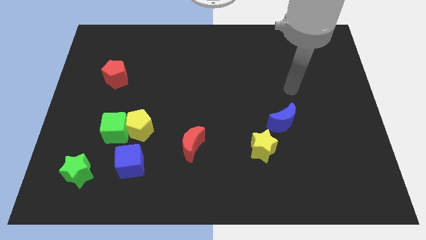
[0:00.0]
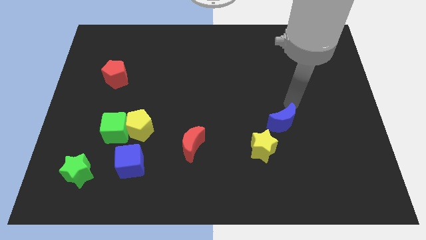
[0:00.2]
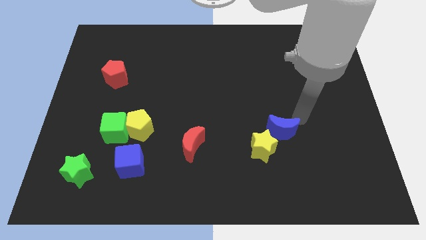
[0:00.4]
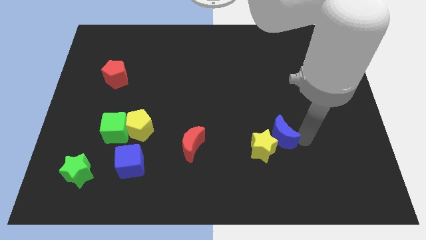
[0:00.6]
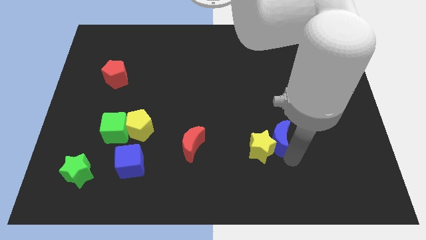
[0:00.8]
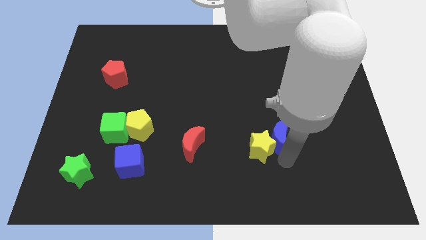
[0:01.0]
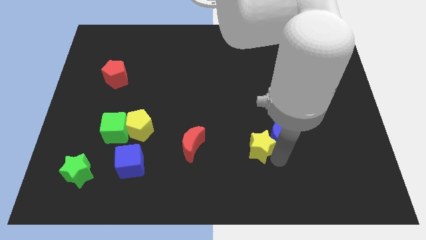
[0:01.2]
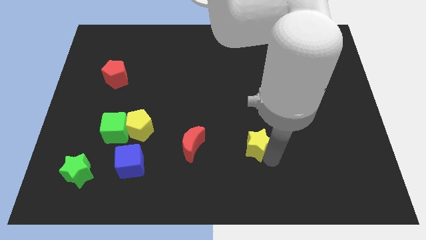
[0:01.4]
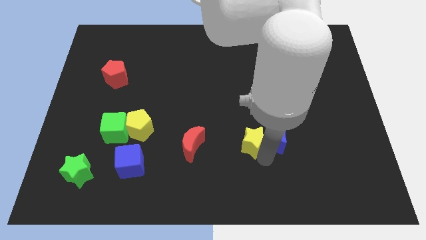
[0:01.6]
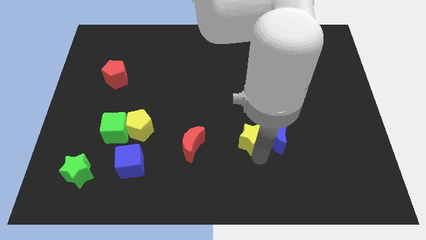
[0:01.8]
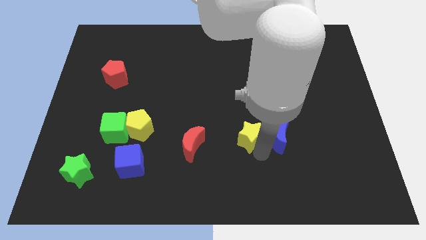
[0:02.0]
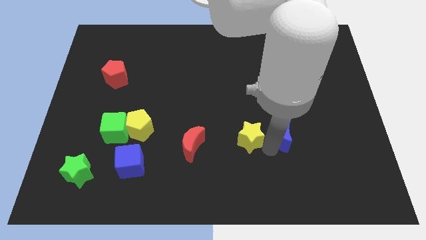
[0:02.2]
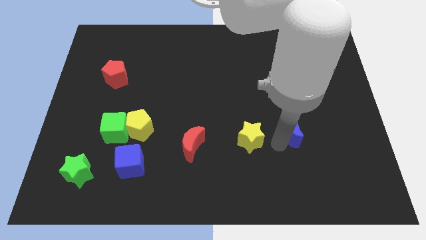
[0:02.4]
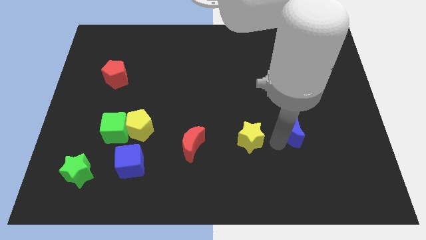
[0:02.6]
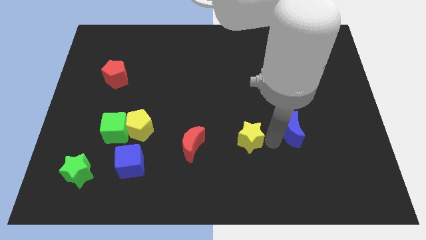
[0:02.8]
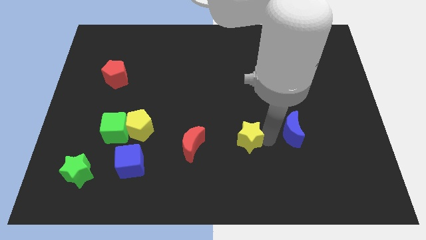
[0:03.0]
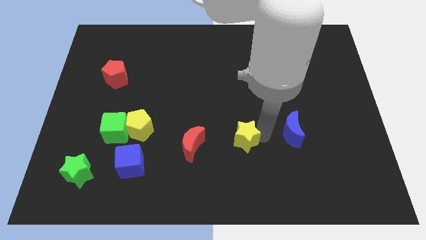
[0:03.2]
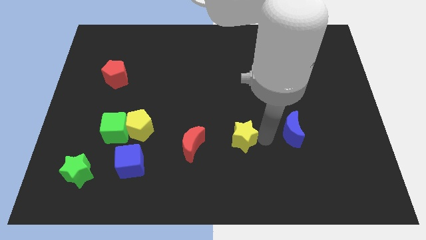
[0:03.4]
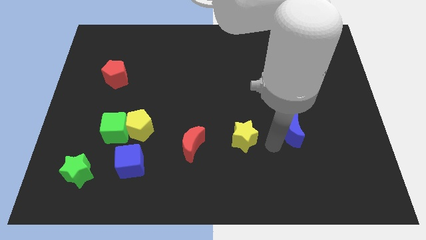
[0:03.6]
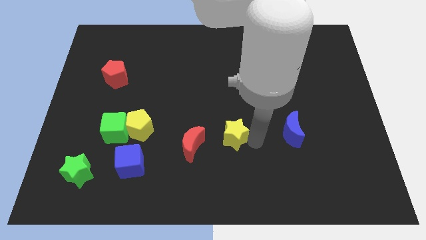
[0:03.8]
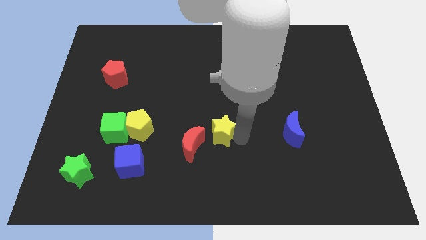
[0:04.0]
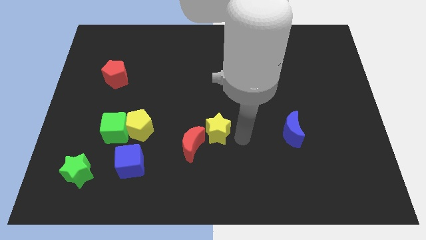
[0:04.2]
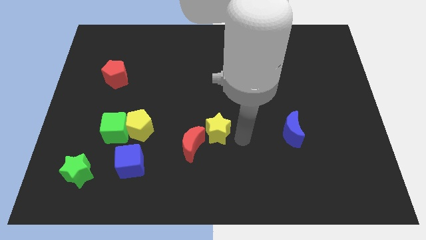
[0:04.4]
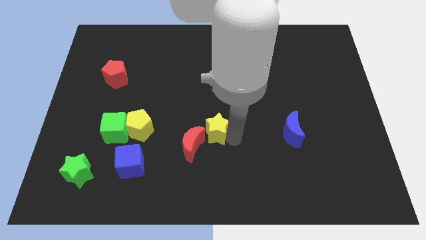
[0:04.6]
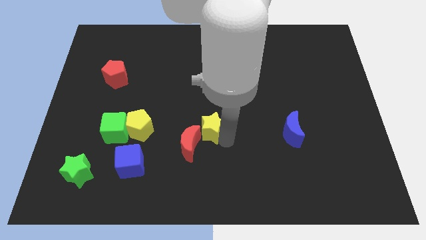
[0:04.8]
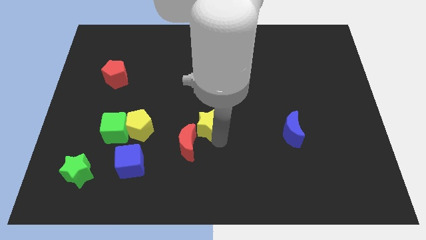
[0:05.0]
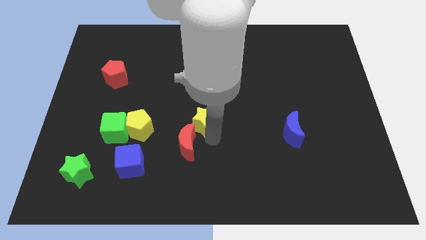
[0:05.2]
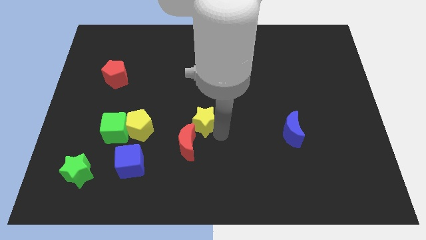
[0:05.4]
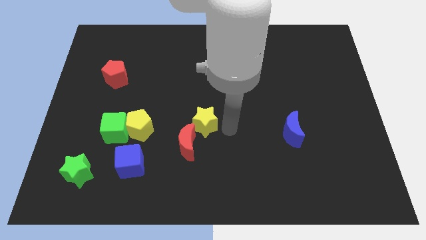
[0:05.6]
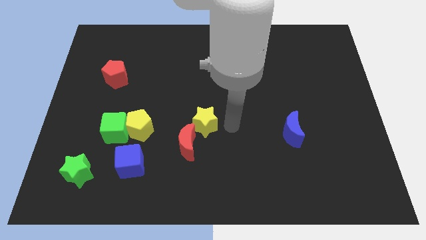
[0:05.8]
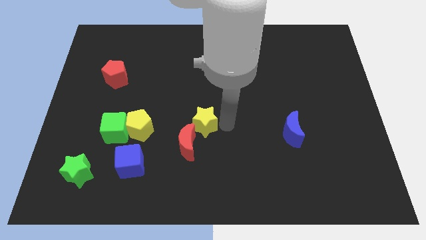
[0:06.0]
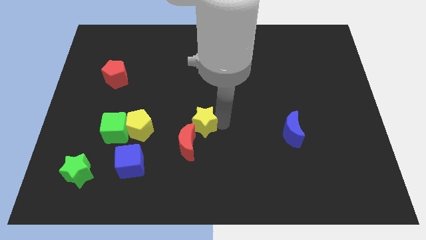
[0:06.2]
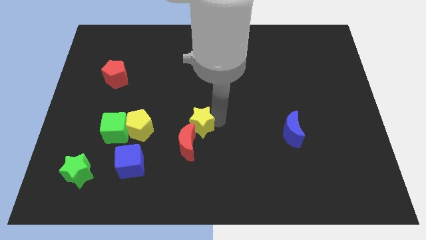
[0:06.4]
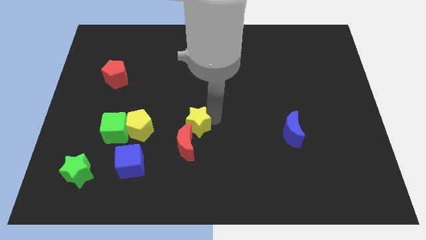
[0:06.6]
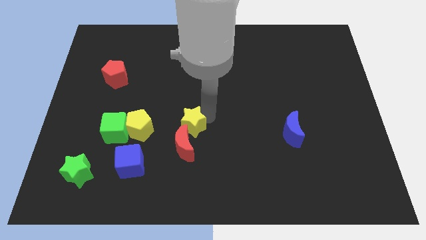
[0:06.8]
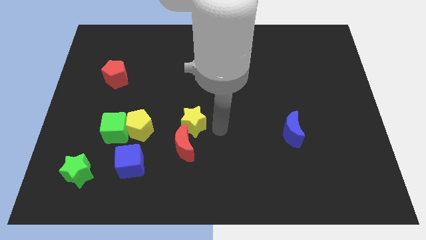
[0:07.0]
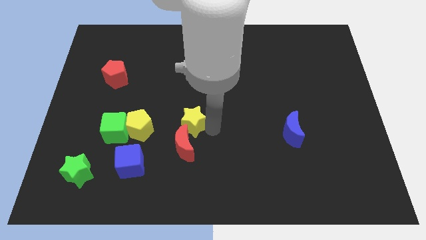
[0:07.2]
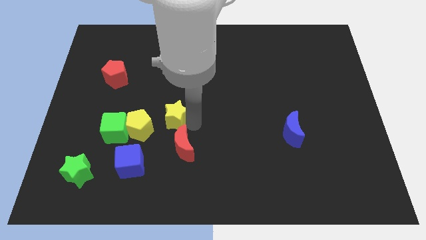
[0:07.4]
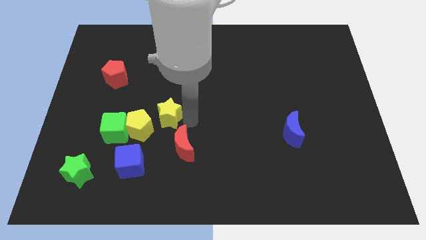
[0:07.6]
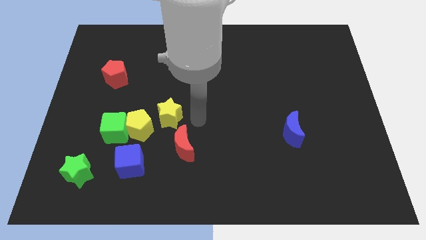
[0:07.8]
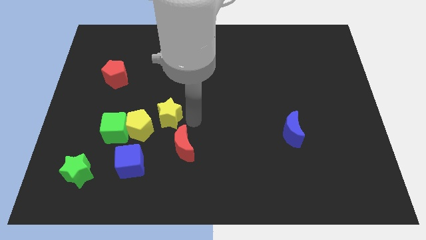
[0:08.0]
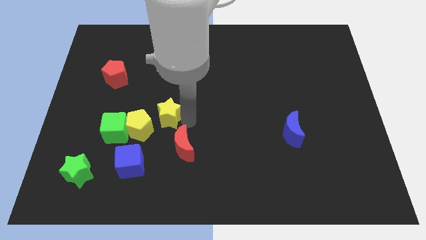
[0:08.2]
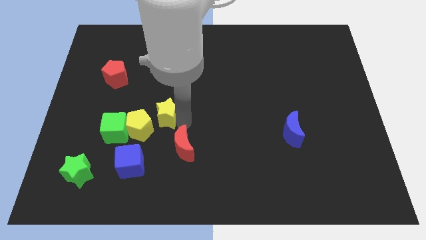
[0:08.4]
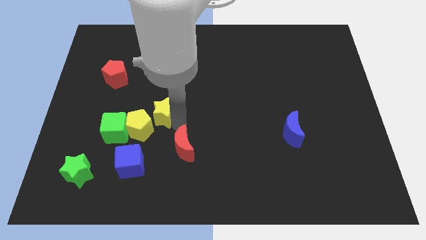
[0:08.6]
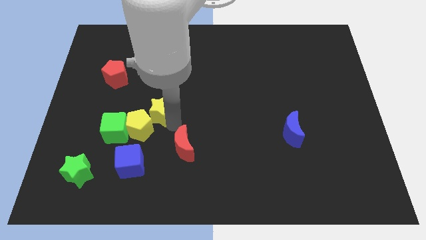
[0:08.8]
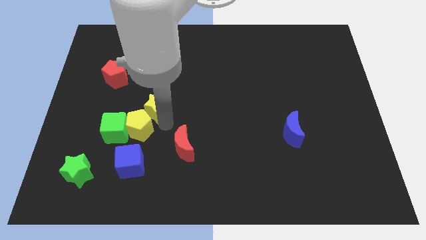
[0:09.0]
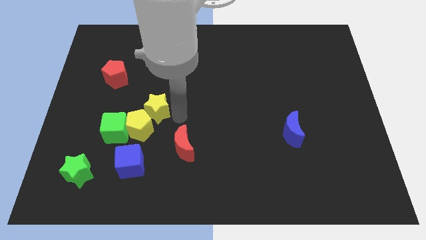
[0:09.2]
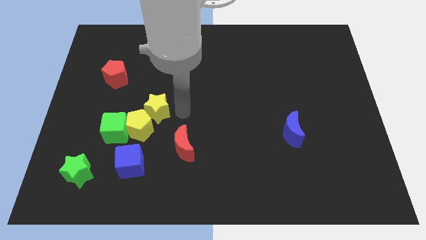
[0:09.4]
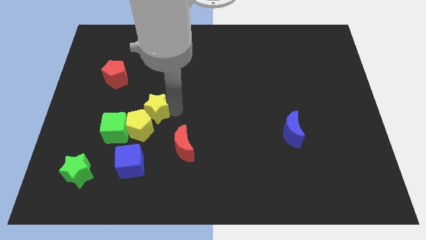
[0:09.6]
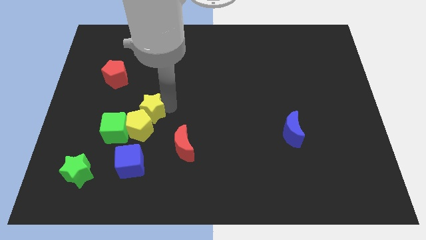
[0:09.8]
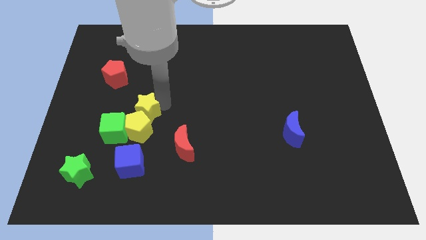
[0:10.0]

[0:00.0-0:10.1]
push the yellow star to the top left of the yellow pentagon

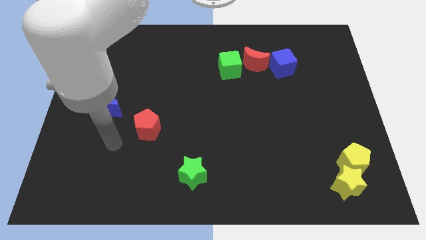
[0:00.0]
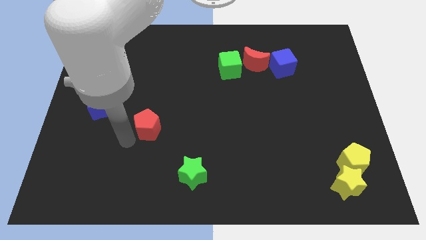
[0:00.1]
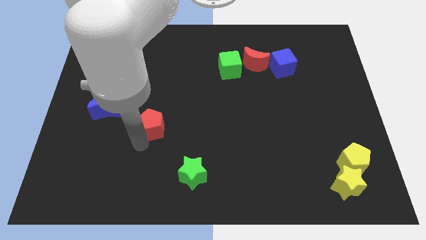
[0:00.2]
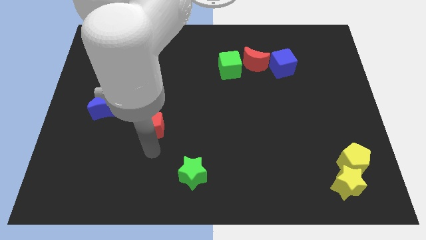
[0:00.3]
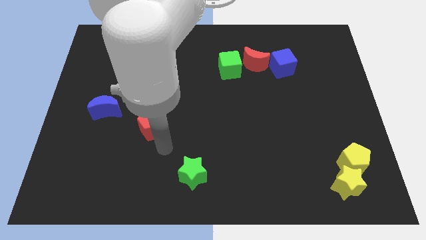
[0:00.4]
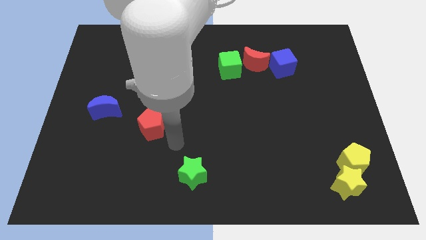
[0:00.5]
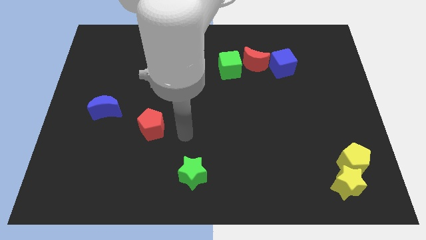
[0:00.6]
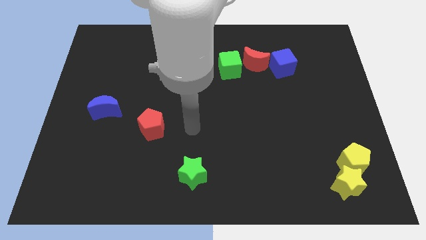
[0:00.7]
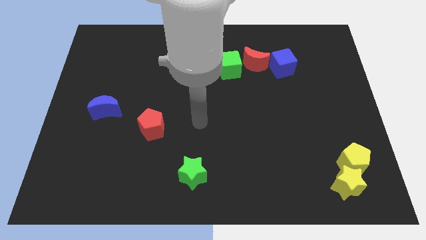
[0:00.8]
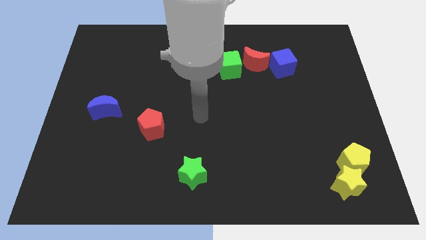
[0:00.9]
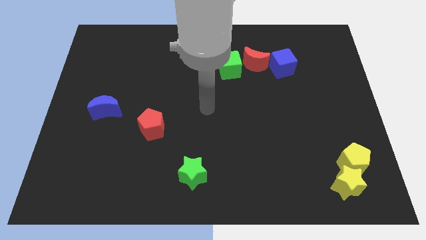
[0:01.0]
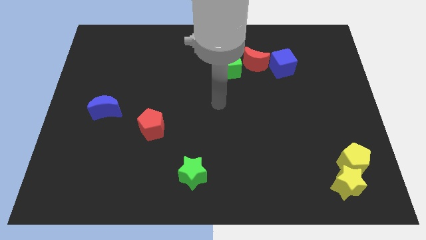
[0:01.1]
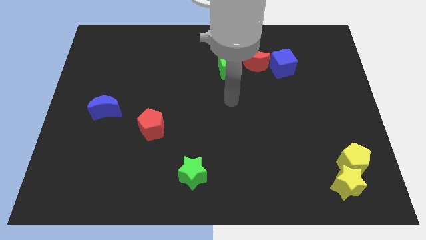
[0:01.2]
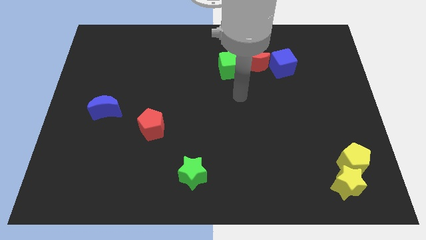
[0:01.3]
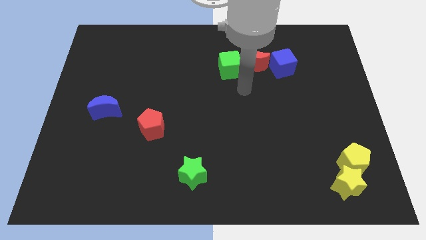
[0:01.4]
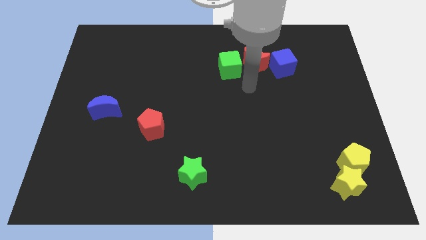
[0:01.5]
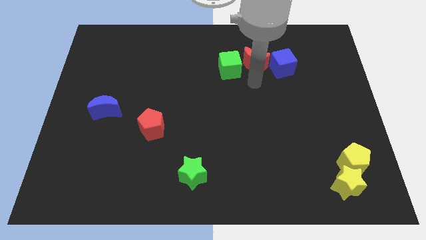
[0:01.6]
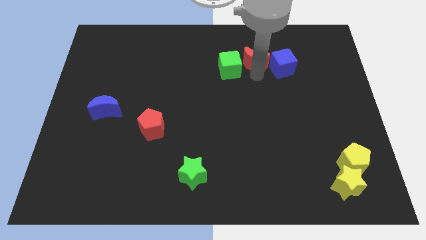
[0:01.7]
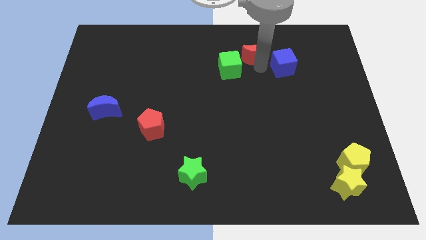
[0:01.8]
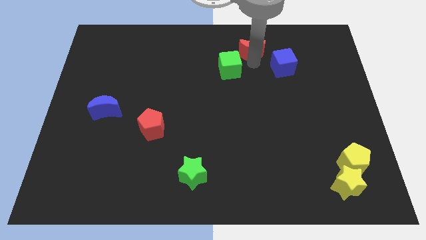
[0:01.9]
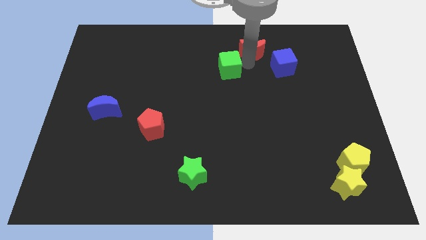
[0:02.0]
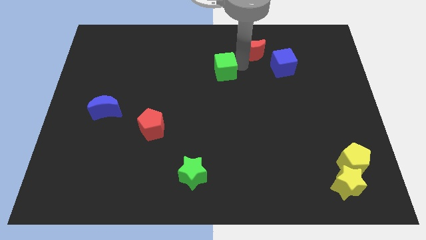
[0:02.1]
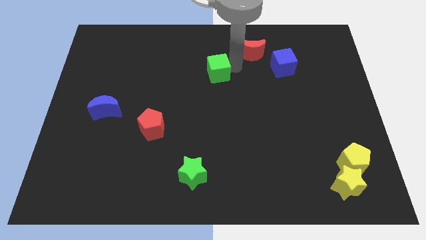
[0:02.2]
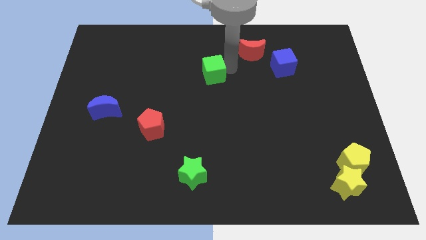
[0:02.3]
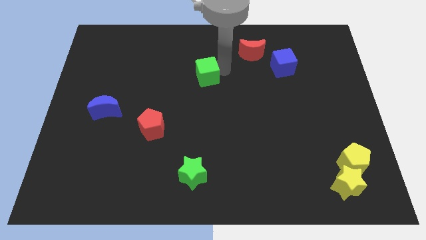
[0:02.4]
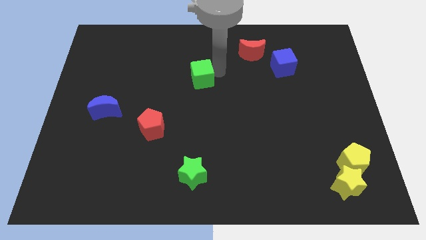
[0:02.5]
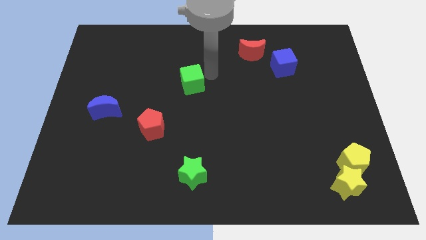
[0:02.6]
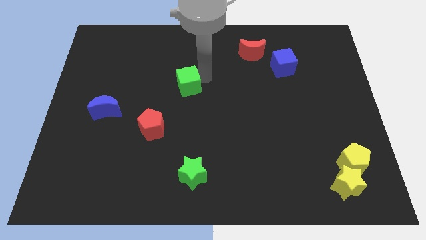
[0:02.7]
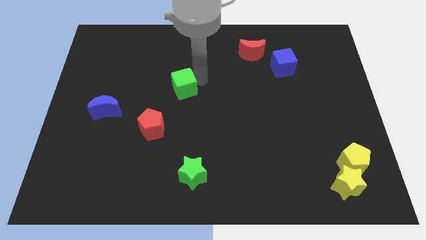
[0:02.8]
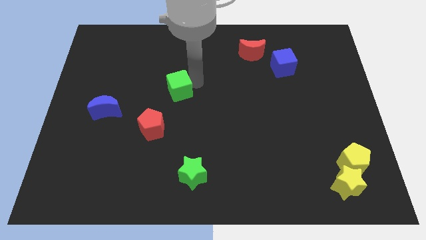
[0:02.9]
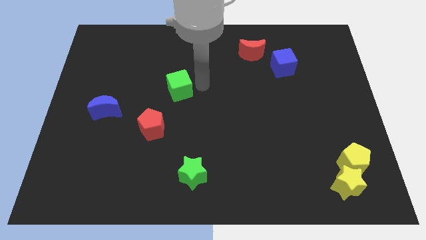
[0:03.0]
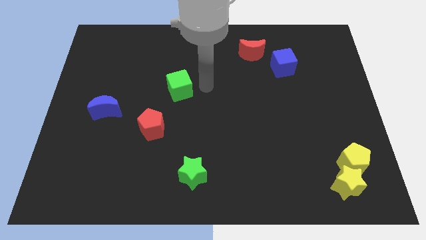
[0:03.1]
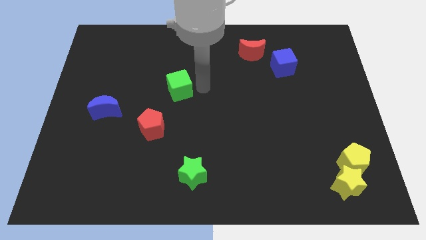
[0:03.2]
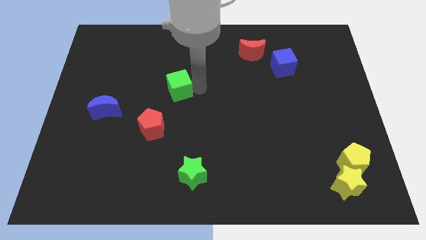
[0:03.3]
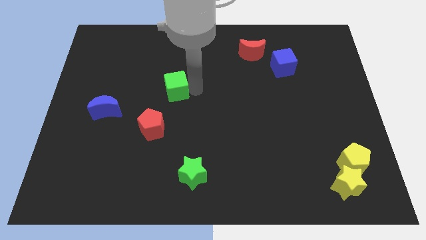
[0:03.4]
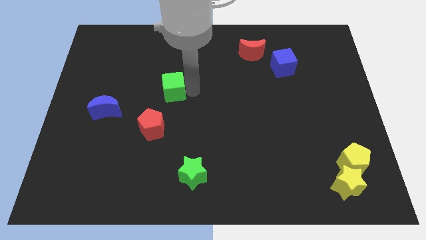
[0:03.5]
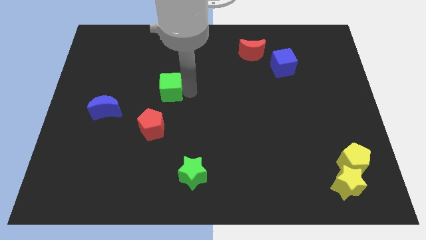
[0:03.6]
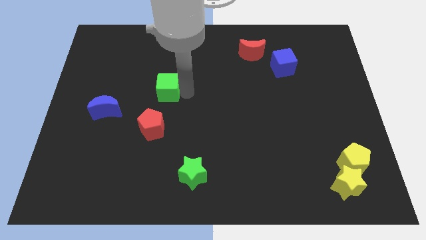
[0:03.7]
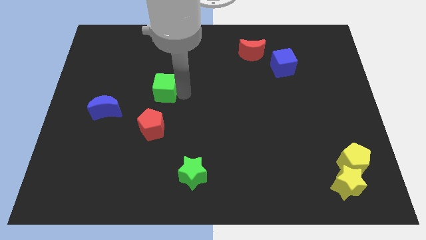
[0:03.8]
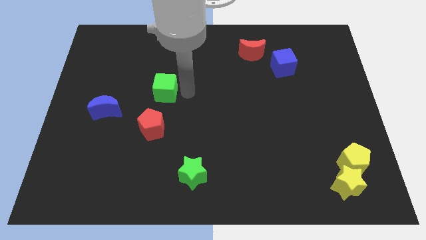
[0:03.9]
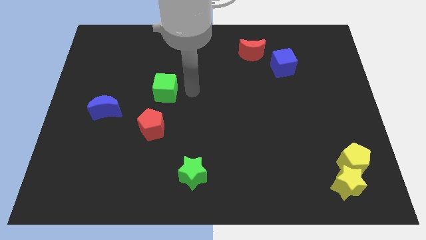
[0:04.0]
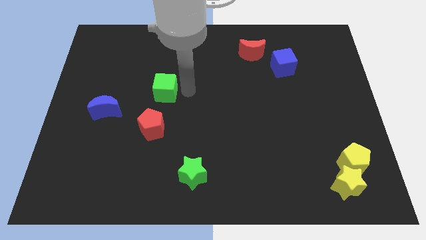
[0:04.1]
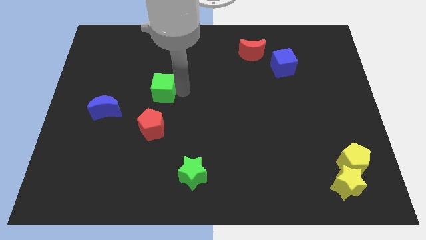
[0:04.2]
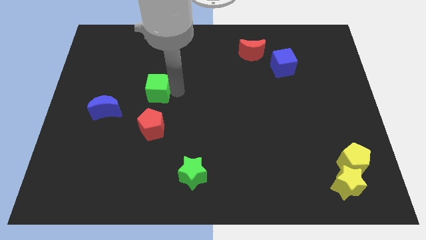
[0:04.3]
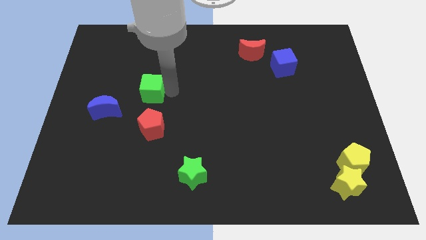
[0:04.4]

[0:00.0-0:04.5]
move the green cube to the top right side of the blue moon
